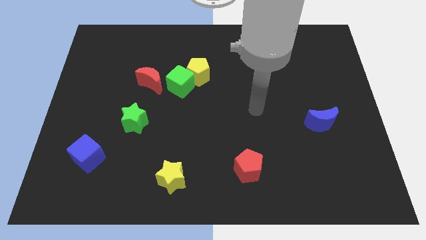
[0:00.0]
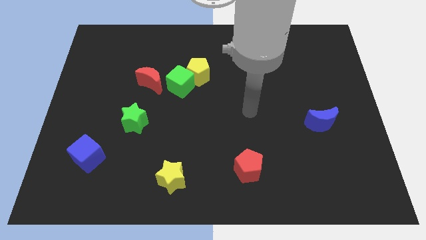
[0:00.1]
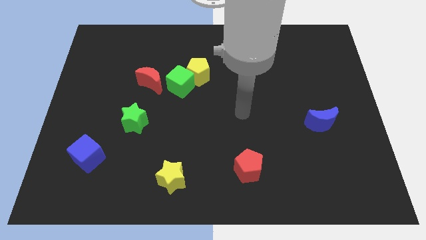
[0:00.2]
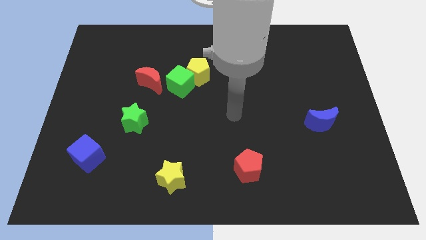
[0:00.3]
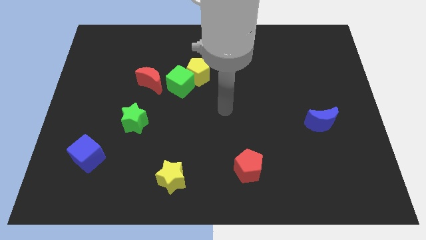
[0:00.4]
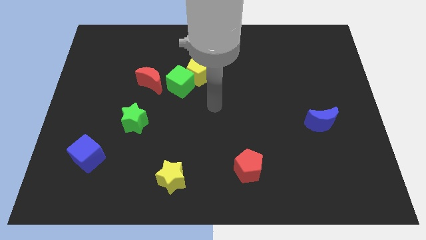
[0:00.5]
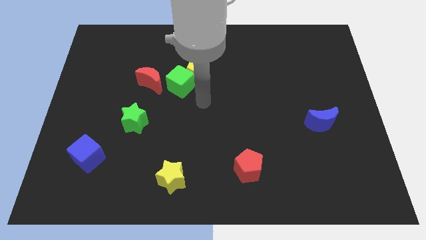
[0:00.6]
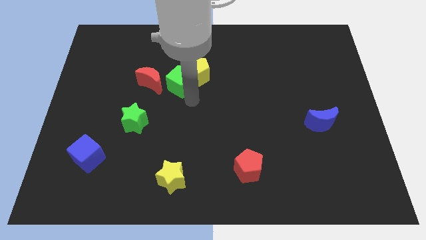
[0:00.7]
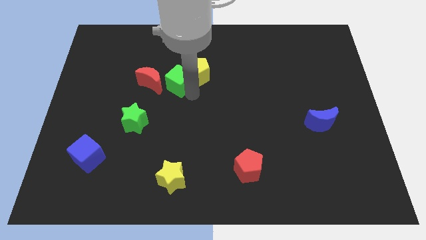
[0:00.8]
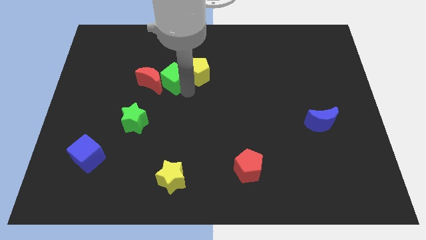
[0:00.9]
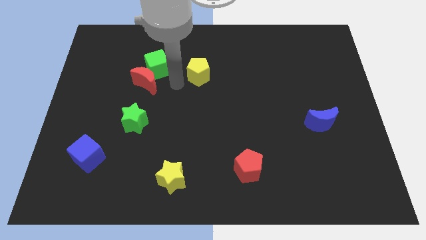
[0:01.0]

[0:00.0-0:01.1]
pull the yellow pentagon apart from the green cube

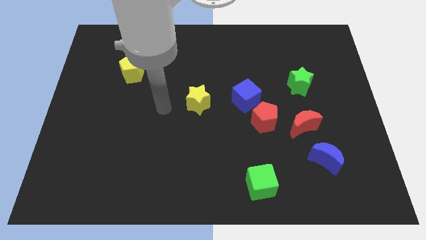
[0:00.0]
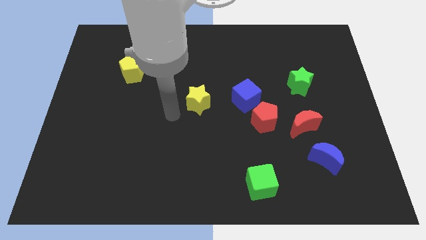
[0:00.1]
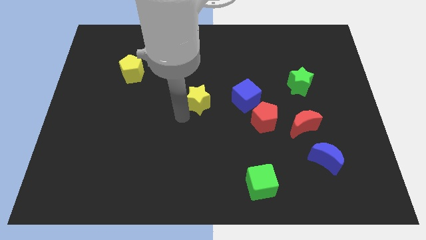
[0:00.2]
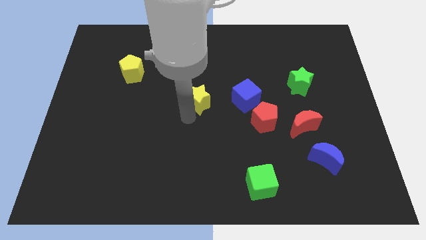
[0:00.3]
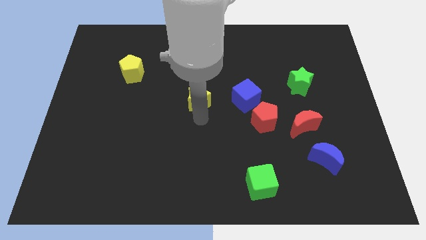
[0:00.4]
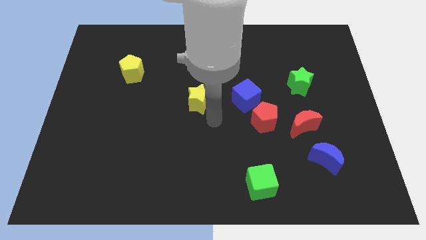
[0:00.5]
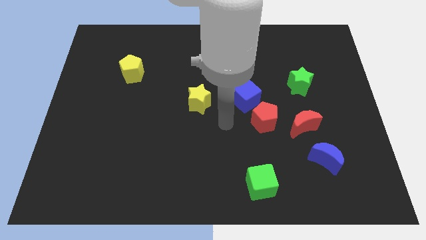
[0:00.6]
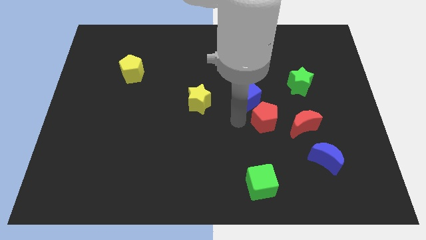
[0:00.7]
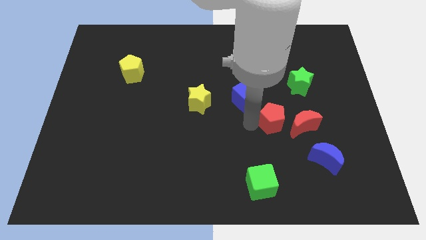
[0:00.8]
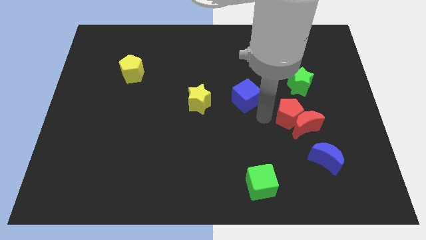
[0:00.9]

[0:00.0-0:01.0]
separate the blue cube from the red pentagon

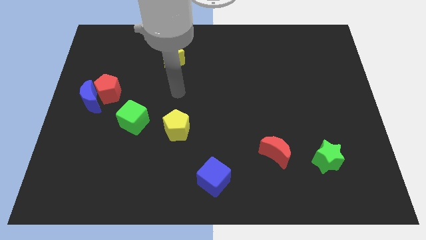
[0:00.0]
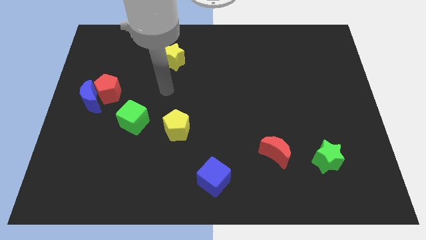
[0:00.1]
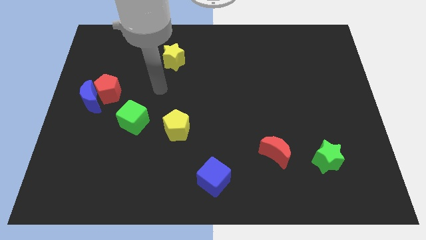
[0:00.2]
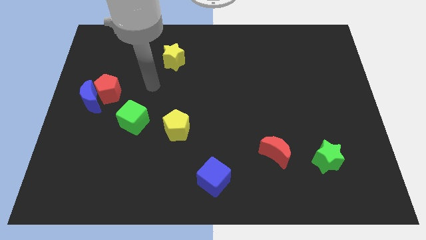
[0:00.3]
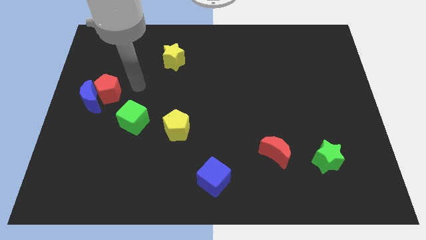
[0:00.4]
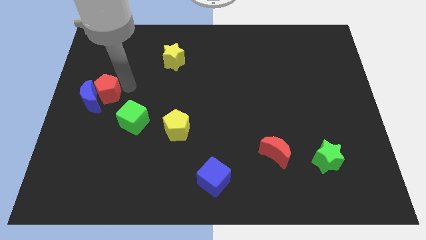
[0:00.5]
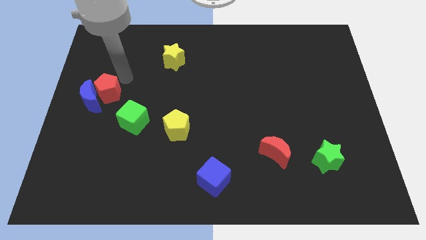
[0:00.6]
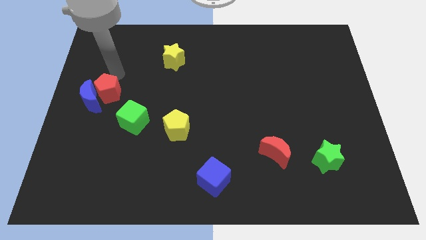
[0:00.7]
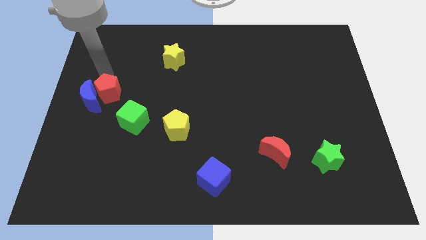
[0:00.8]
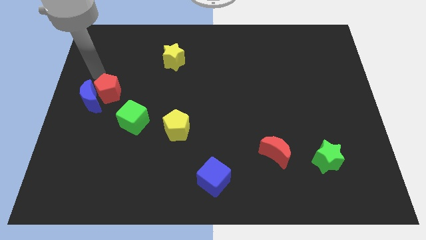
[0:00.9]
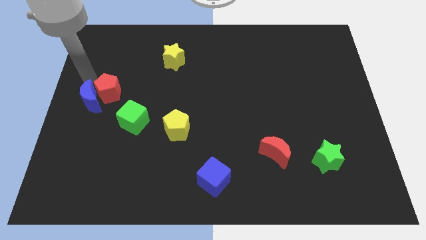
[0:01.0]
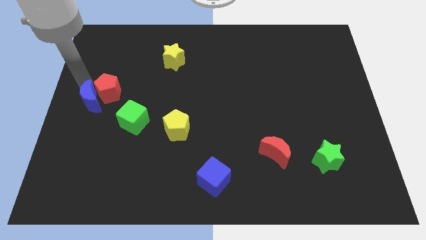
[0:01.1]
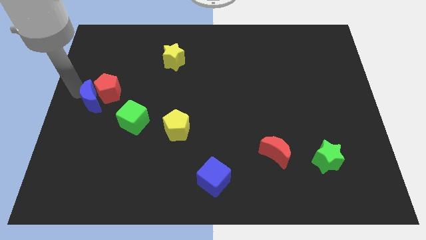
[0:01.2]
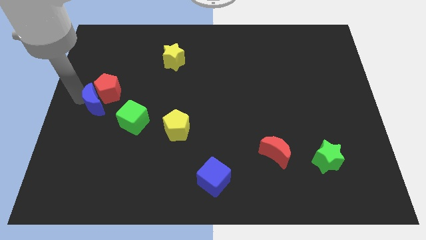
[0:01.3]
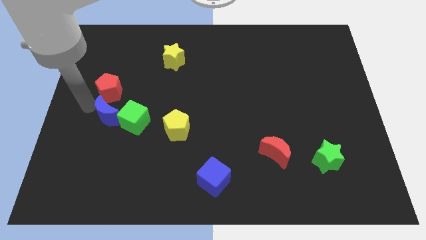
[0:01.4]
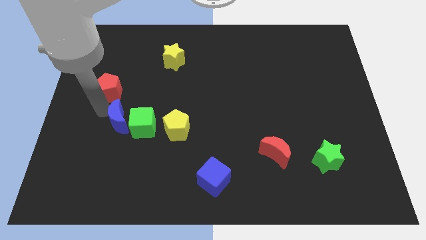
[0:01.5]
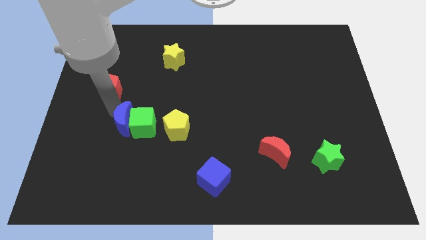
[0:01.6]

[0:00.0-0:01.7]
move the red pentagon away from the blue moon

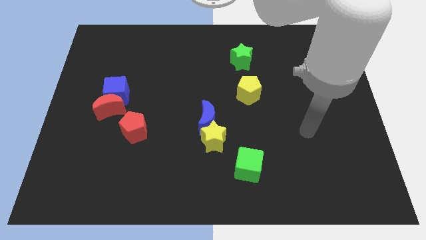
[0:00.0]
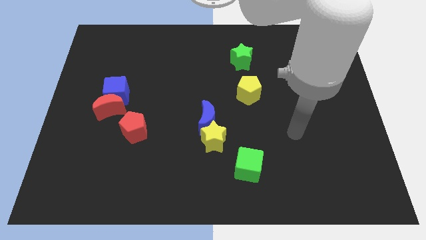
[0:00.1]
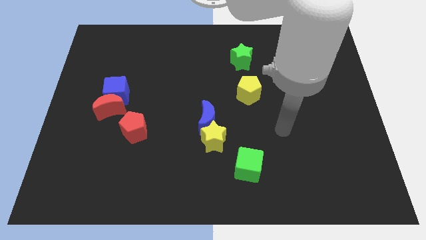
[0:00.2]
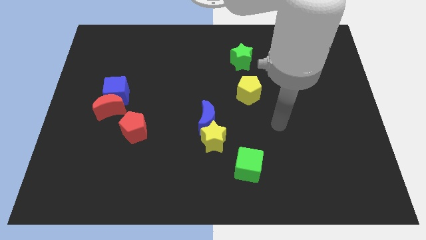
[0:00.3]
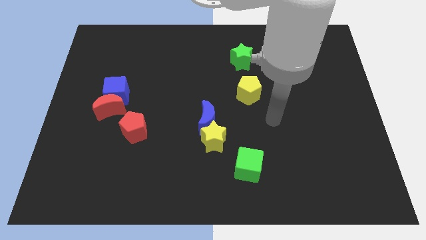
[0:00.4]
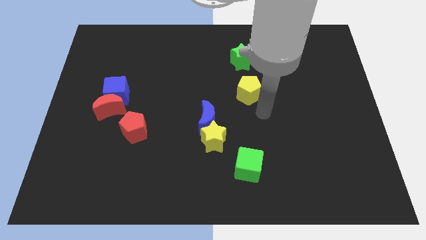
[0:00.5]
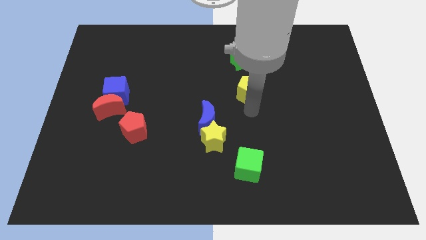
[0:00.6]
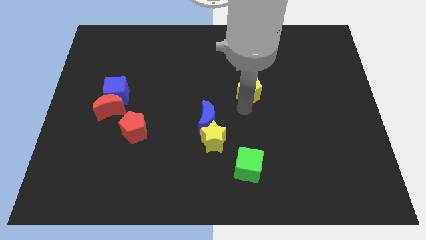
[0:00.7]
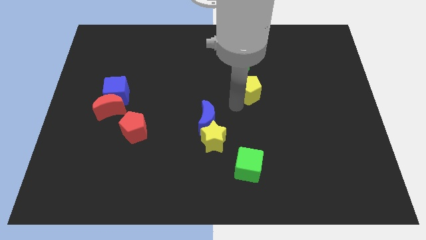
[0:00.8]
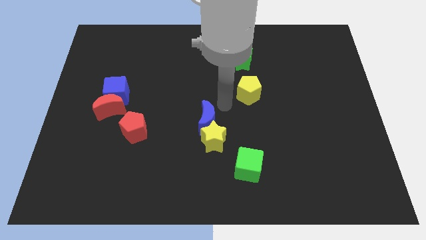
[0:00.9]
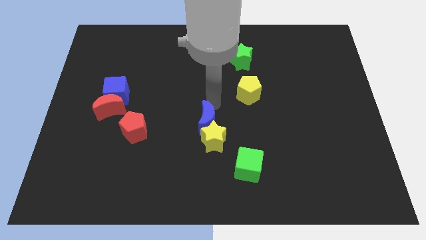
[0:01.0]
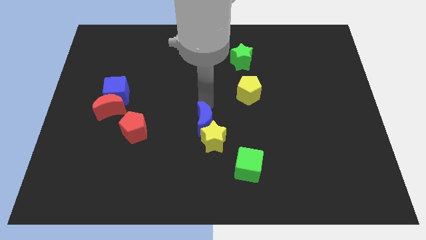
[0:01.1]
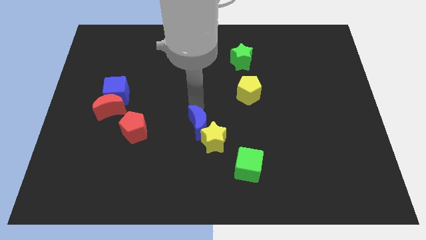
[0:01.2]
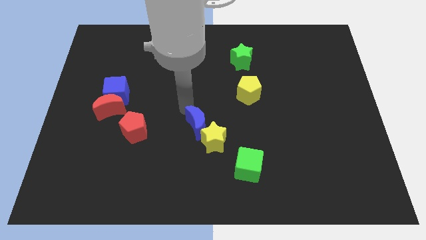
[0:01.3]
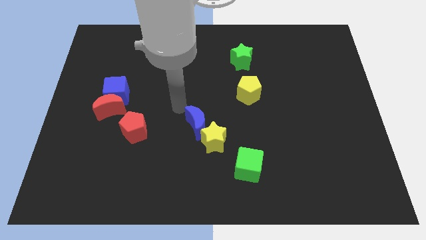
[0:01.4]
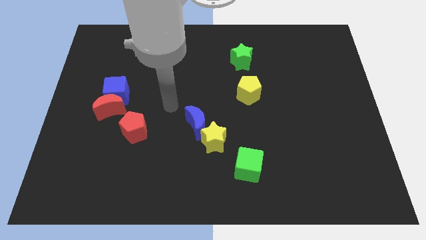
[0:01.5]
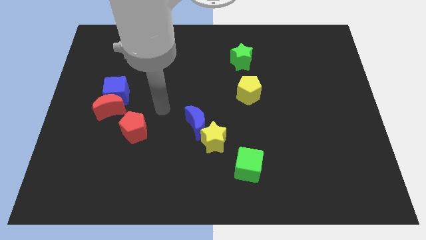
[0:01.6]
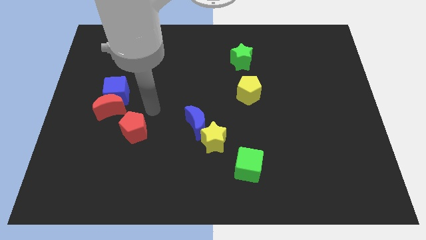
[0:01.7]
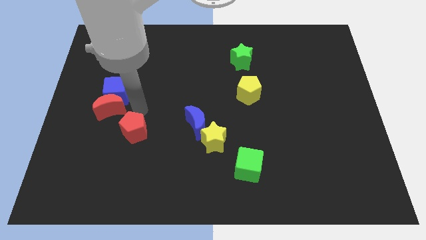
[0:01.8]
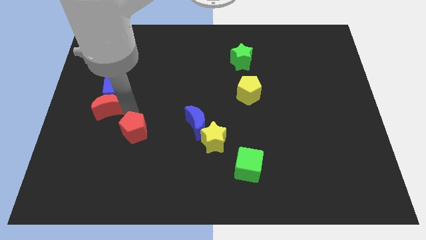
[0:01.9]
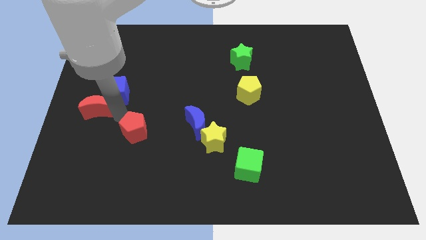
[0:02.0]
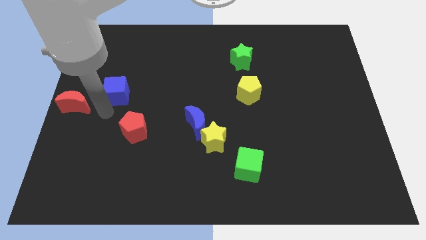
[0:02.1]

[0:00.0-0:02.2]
separate the blue cube from the red moon

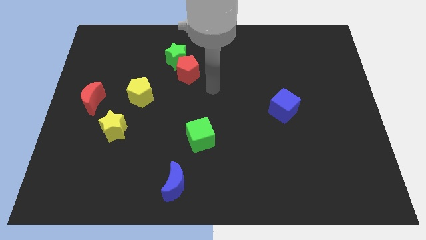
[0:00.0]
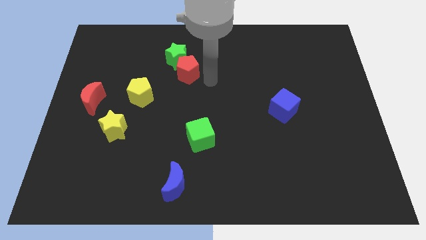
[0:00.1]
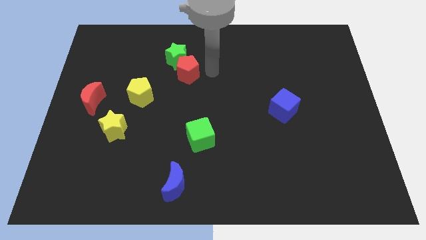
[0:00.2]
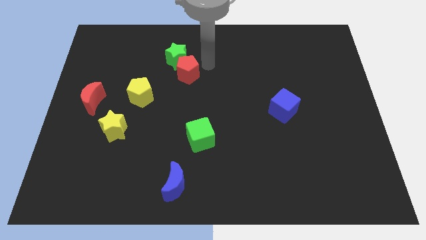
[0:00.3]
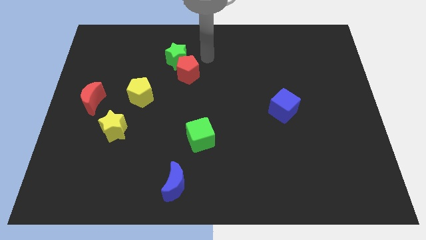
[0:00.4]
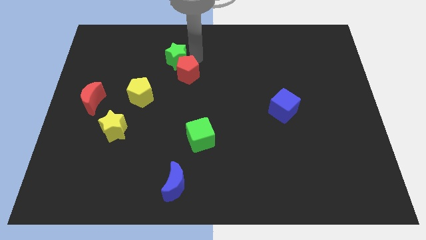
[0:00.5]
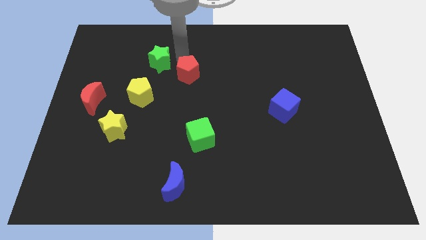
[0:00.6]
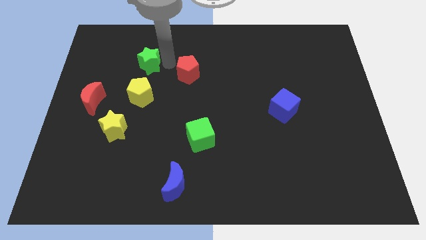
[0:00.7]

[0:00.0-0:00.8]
pull the red pentagon apart from the green star

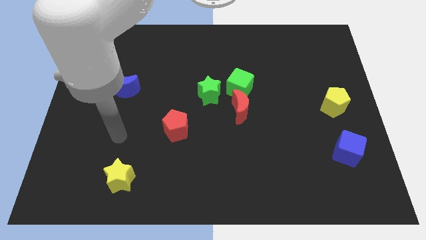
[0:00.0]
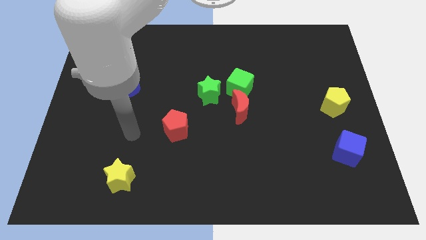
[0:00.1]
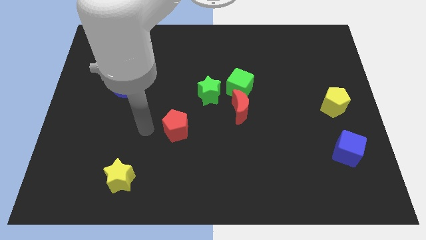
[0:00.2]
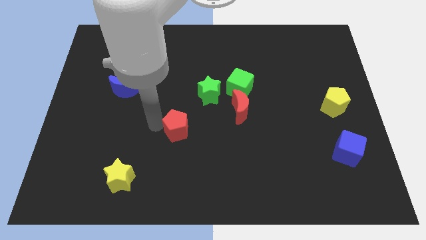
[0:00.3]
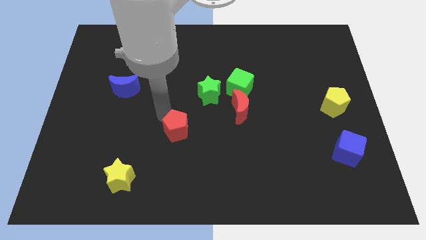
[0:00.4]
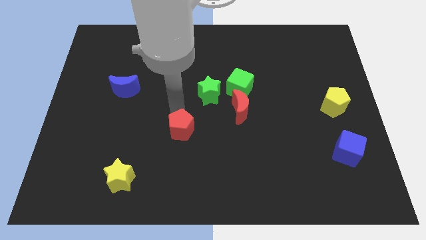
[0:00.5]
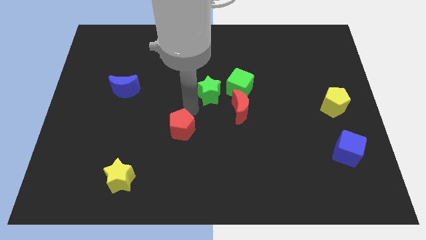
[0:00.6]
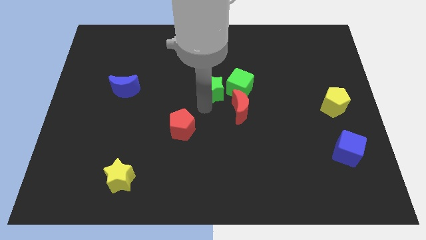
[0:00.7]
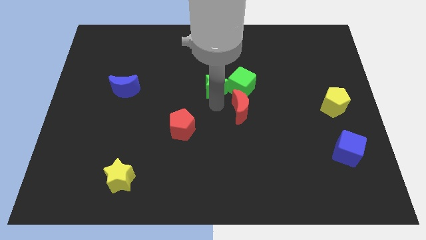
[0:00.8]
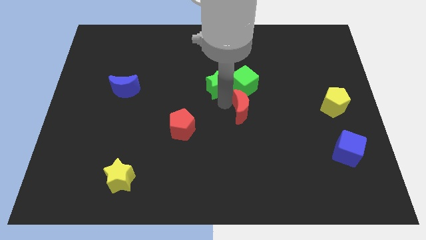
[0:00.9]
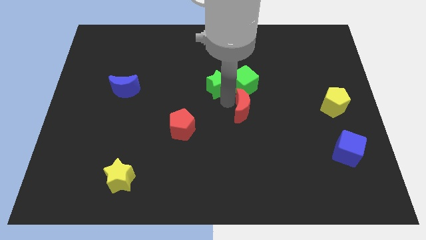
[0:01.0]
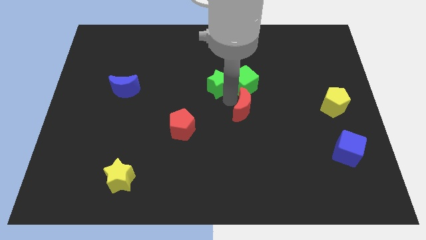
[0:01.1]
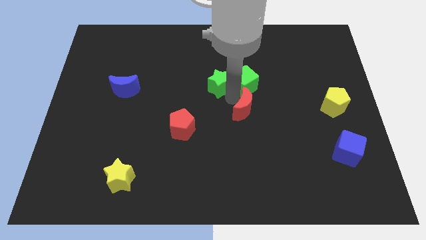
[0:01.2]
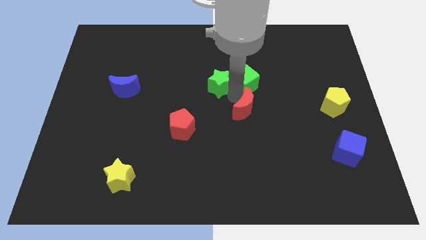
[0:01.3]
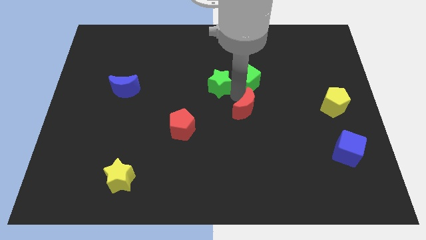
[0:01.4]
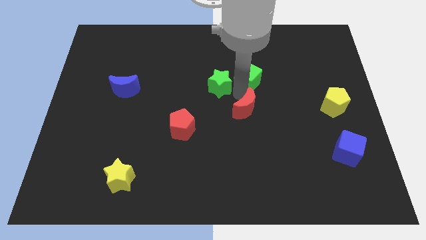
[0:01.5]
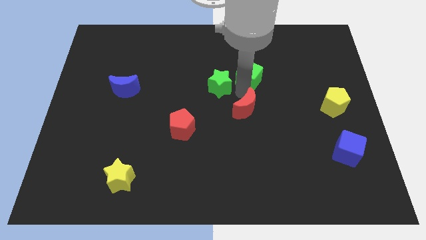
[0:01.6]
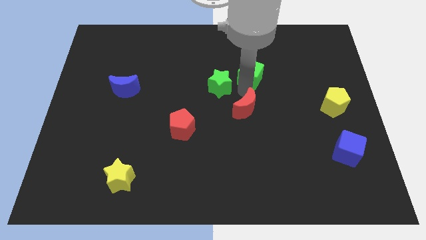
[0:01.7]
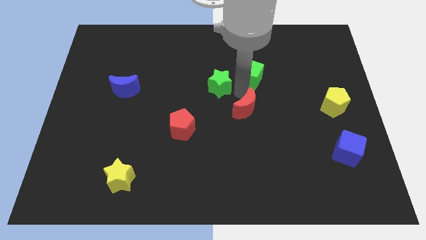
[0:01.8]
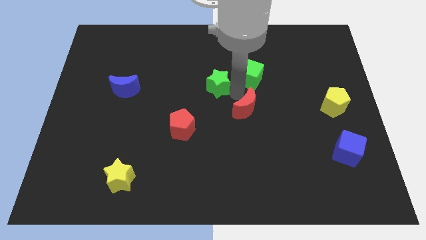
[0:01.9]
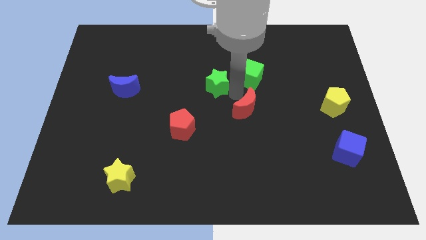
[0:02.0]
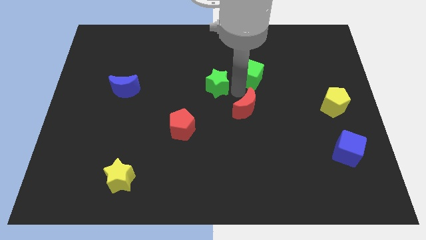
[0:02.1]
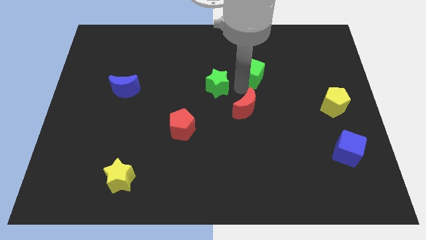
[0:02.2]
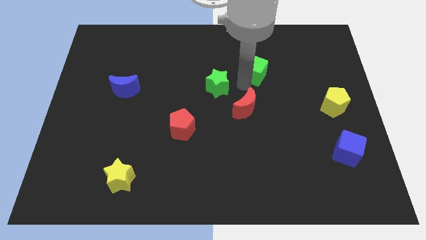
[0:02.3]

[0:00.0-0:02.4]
separate the green cube from the red moon and green star
